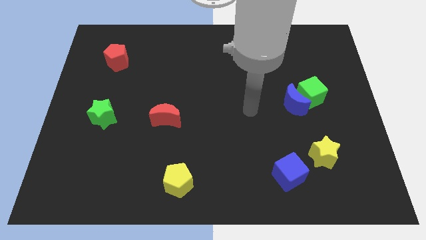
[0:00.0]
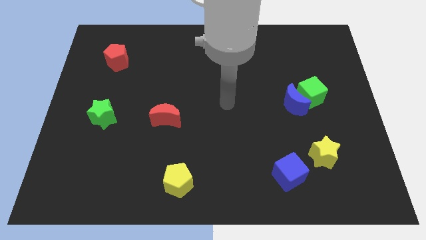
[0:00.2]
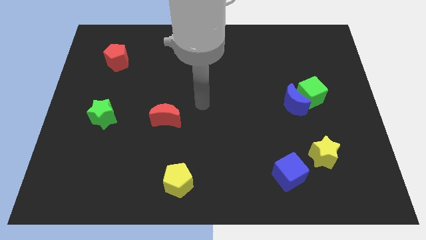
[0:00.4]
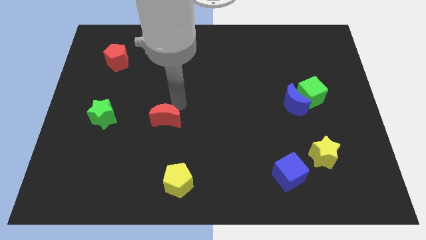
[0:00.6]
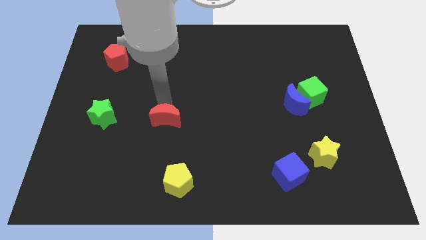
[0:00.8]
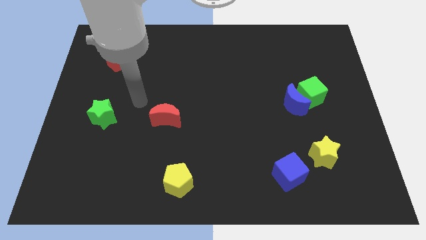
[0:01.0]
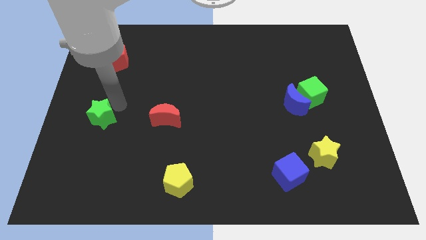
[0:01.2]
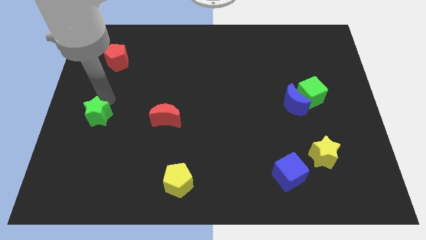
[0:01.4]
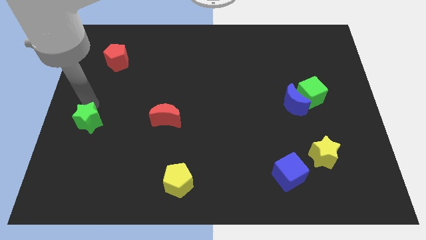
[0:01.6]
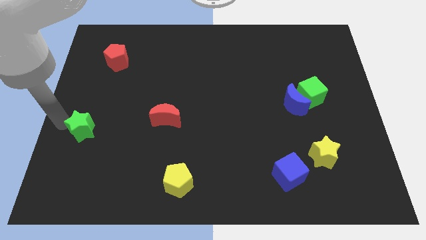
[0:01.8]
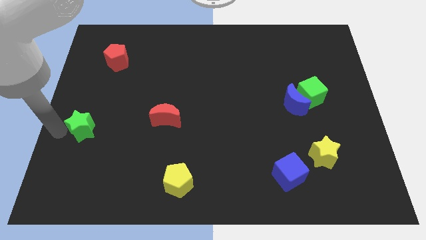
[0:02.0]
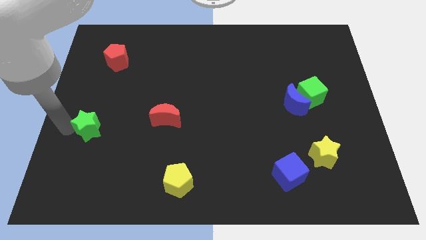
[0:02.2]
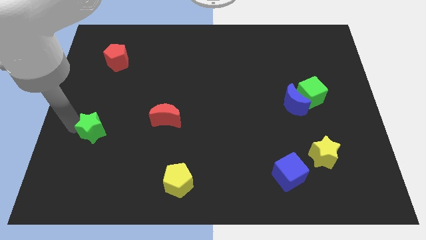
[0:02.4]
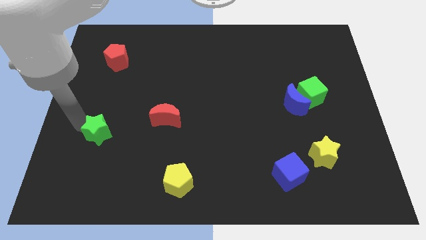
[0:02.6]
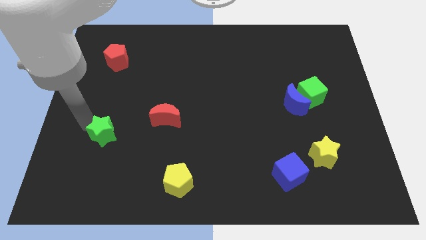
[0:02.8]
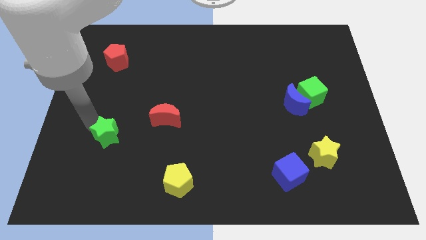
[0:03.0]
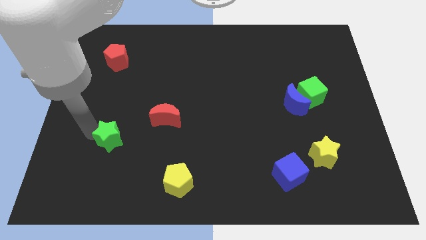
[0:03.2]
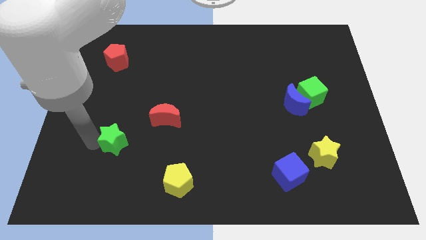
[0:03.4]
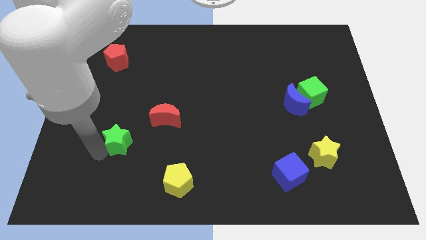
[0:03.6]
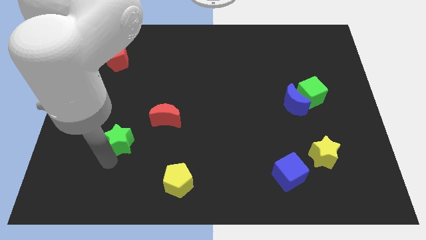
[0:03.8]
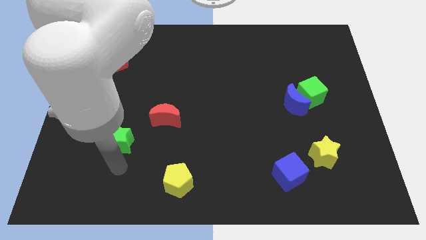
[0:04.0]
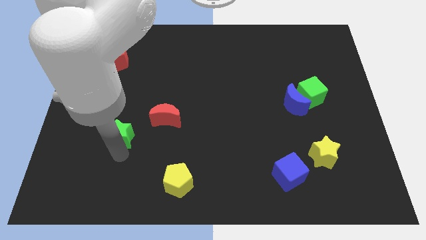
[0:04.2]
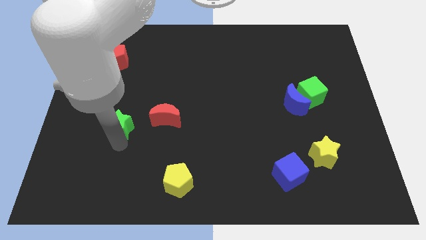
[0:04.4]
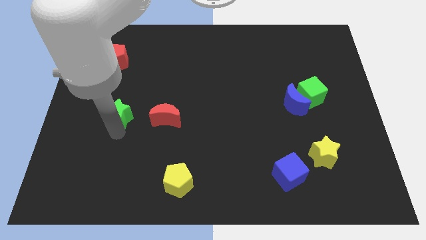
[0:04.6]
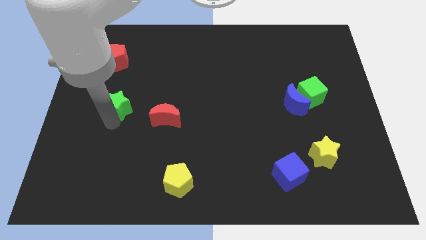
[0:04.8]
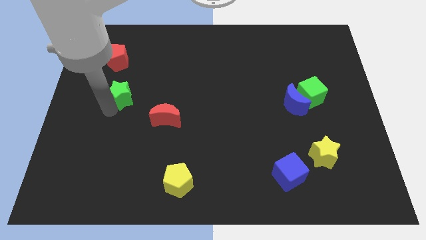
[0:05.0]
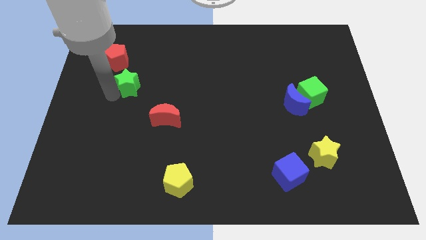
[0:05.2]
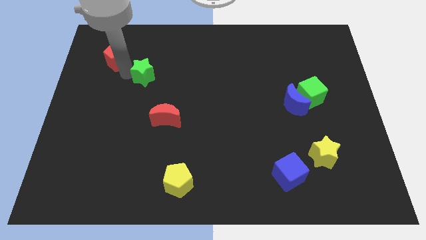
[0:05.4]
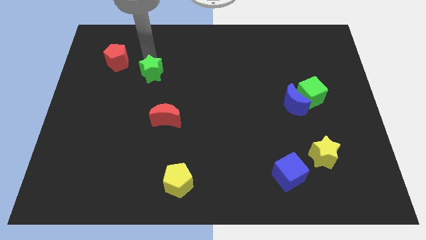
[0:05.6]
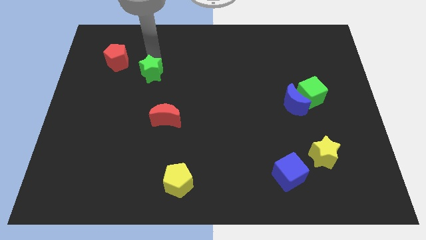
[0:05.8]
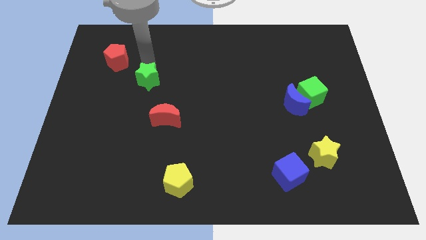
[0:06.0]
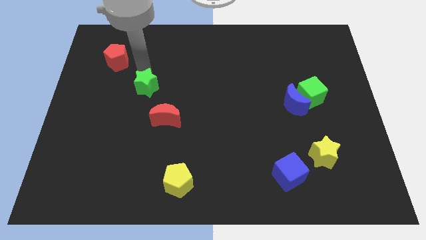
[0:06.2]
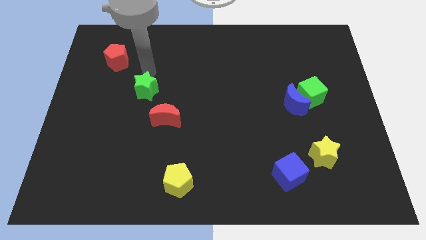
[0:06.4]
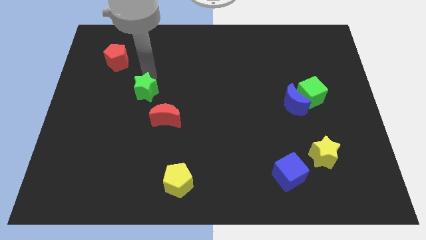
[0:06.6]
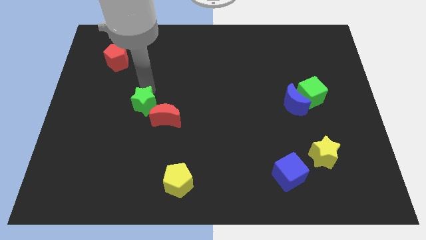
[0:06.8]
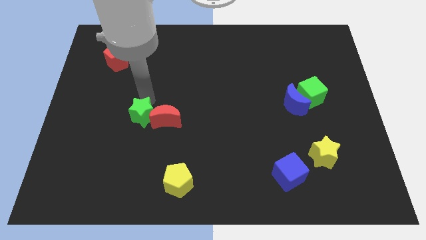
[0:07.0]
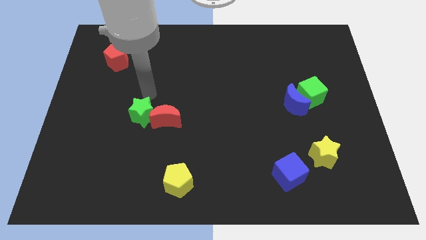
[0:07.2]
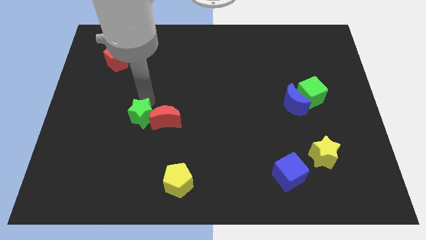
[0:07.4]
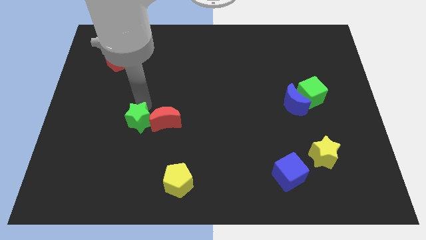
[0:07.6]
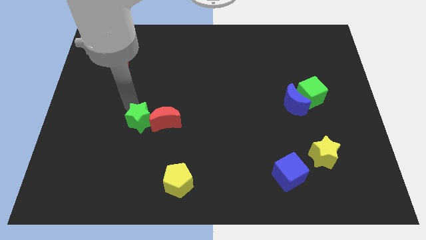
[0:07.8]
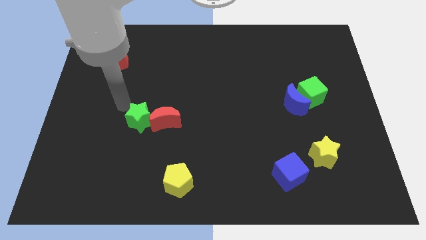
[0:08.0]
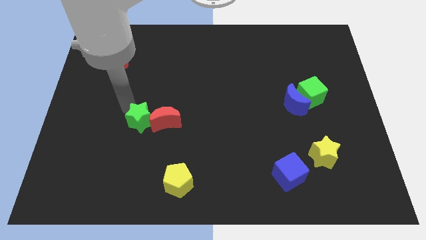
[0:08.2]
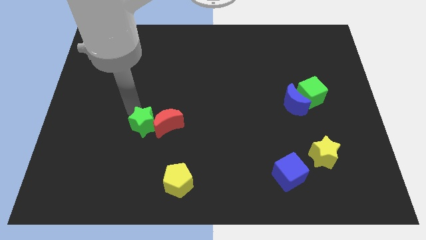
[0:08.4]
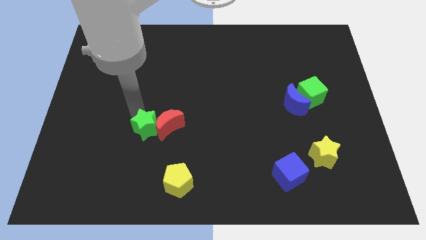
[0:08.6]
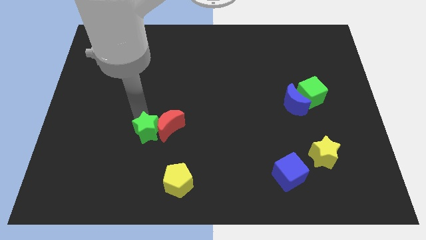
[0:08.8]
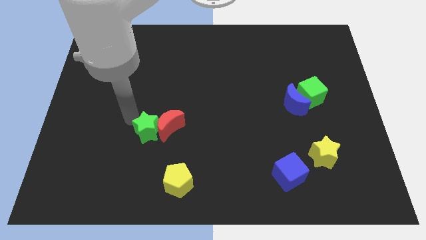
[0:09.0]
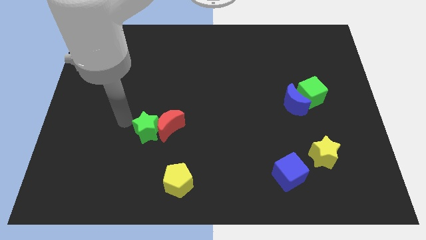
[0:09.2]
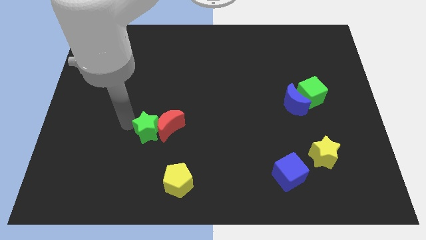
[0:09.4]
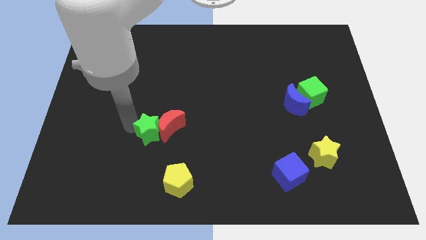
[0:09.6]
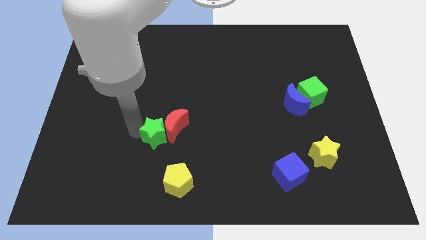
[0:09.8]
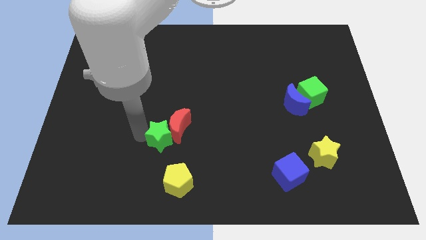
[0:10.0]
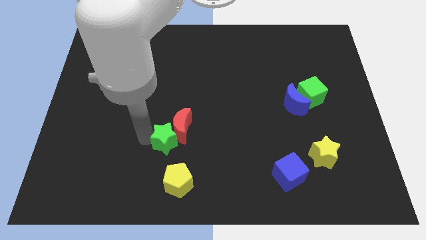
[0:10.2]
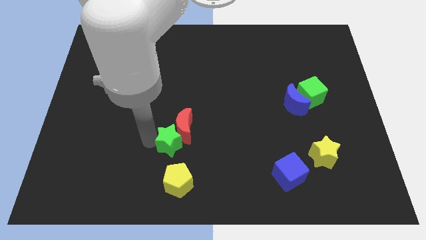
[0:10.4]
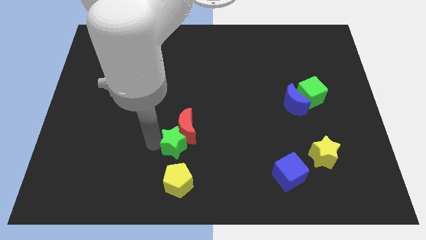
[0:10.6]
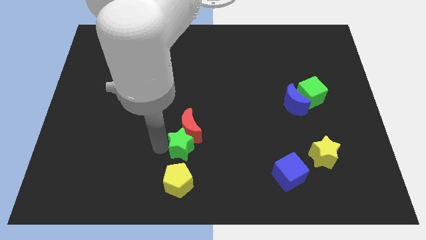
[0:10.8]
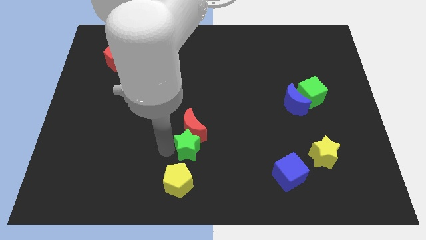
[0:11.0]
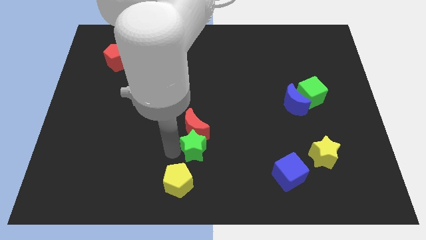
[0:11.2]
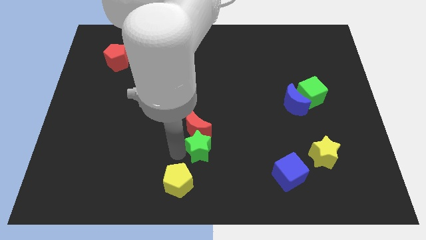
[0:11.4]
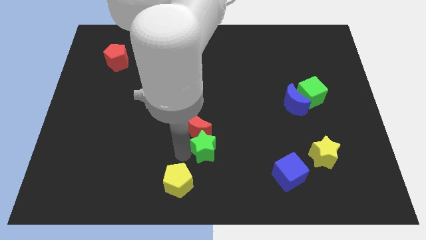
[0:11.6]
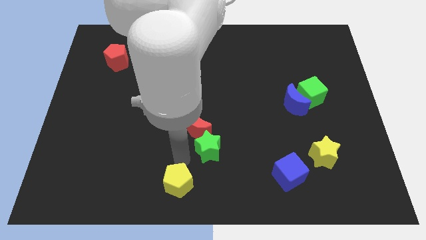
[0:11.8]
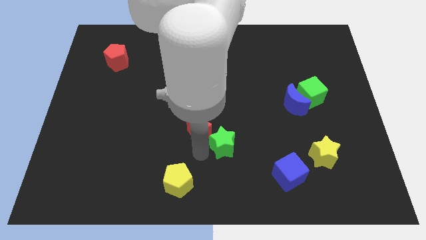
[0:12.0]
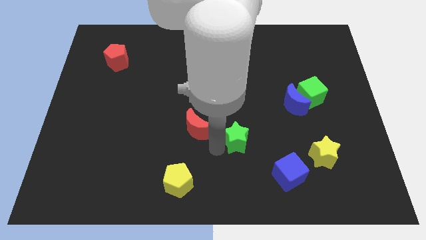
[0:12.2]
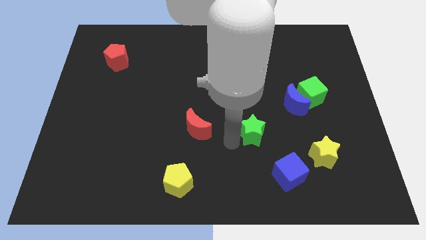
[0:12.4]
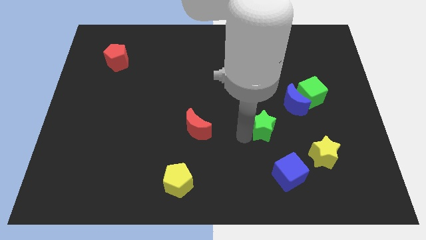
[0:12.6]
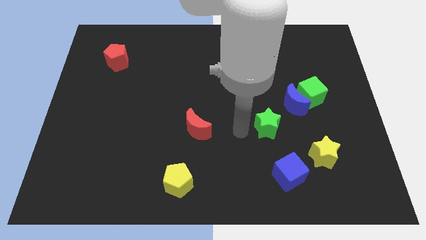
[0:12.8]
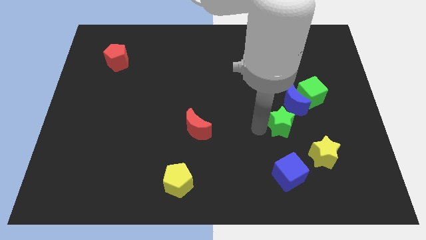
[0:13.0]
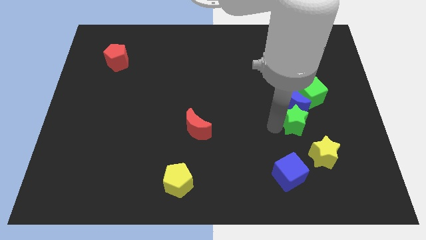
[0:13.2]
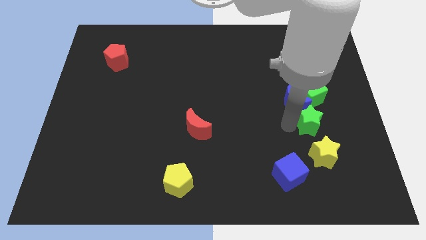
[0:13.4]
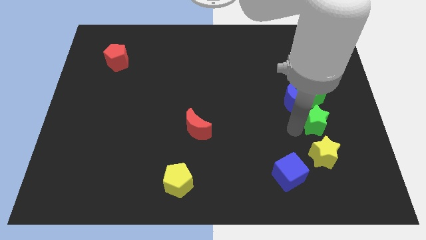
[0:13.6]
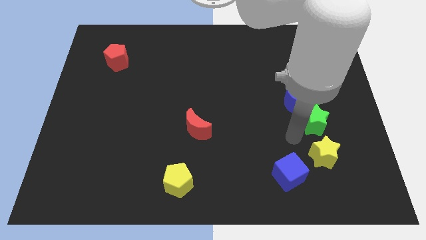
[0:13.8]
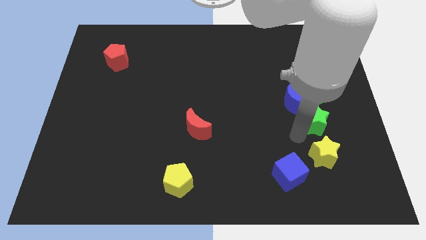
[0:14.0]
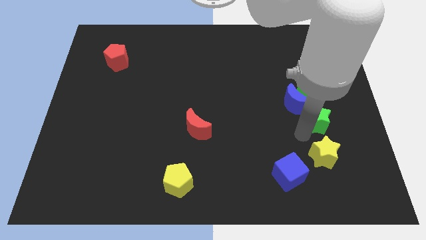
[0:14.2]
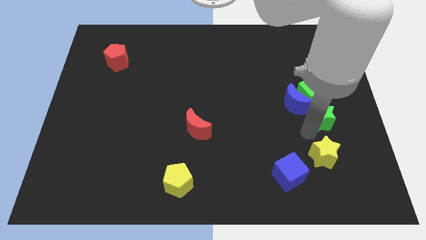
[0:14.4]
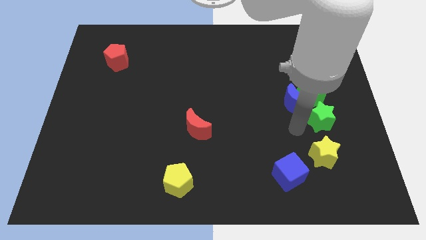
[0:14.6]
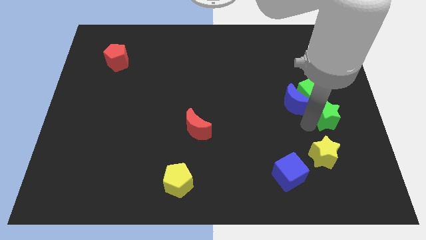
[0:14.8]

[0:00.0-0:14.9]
push the green star to the right side
